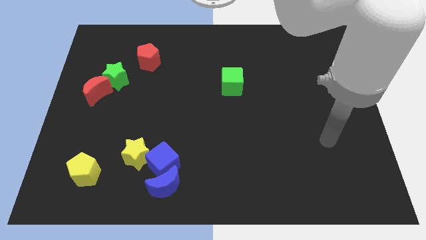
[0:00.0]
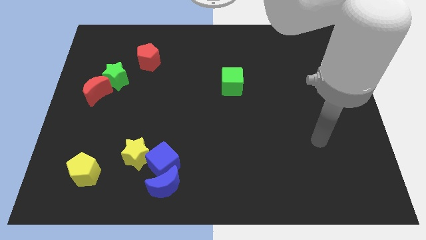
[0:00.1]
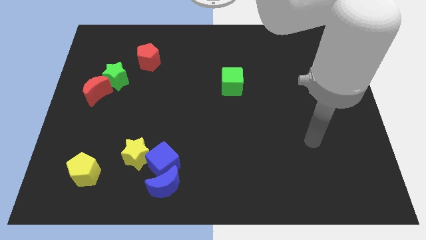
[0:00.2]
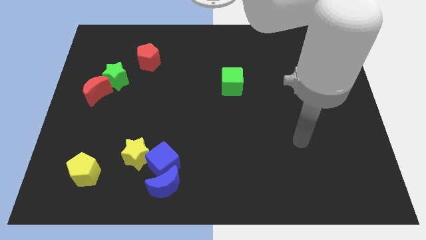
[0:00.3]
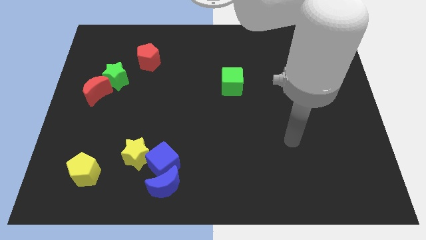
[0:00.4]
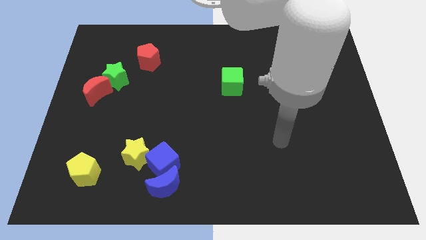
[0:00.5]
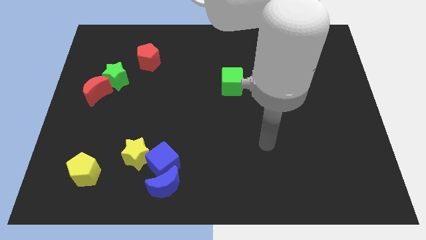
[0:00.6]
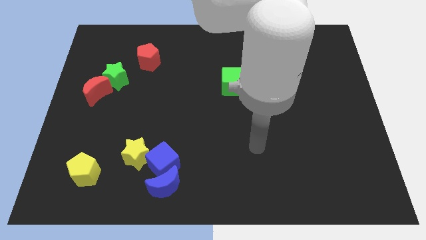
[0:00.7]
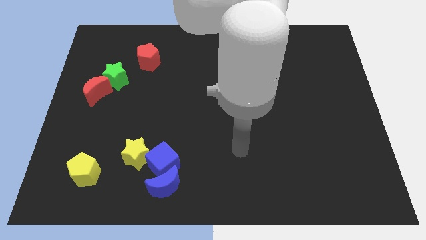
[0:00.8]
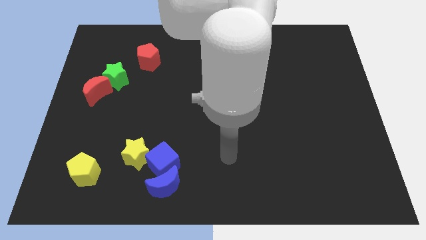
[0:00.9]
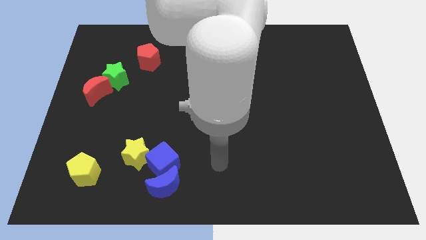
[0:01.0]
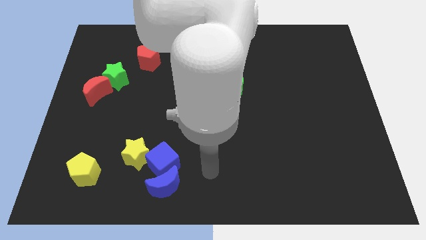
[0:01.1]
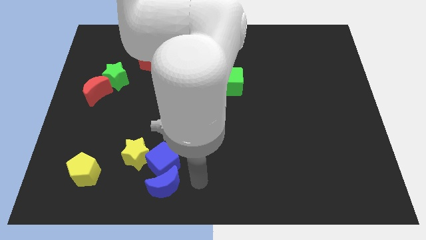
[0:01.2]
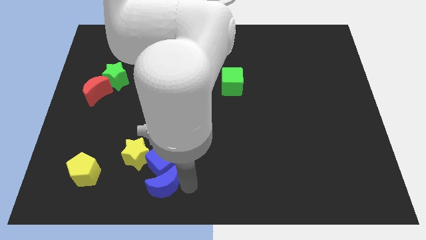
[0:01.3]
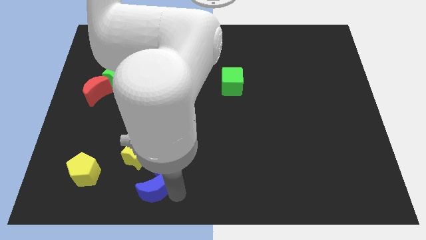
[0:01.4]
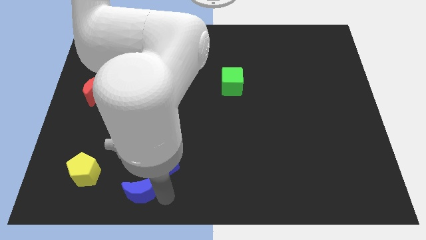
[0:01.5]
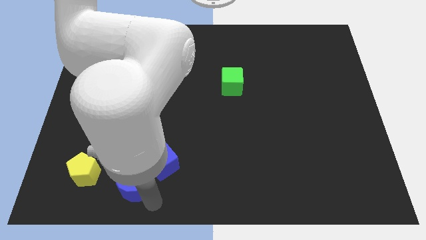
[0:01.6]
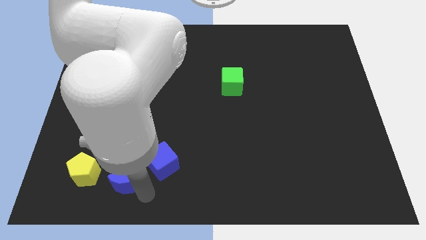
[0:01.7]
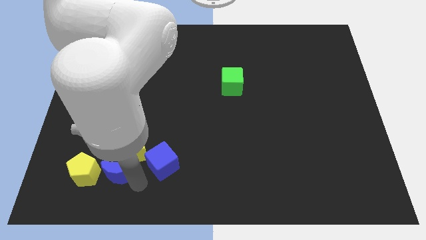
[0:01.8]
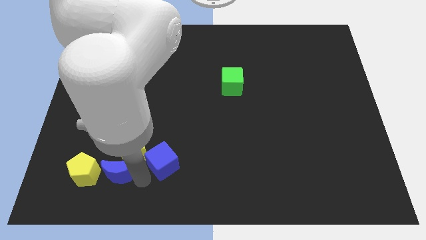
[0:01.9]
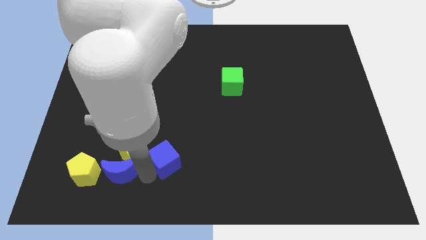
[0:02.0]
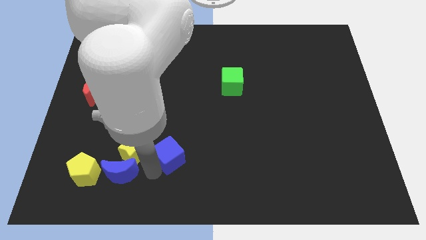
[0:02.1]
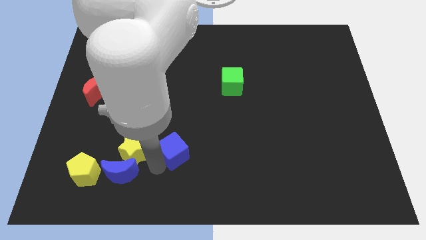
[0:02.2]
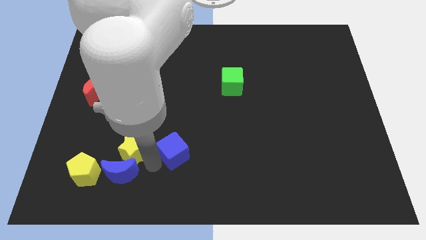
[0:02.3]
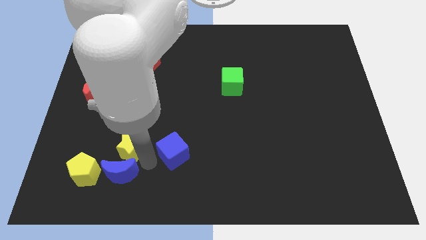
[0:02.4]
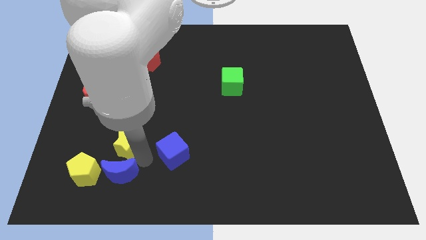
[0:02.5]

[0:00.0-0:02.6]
separate the blue cube from the blue moon and yellow star

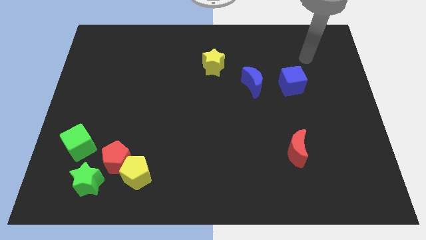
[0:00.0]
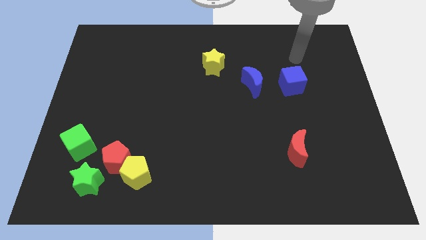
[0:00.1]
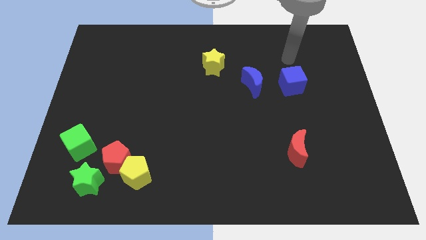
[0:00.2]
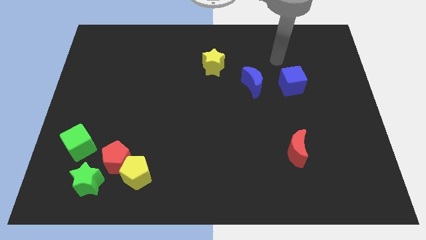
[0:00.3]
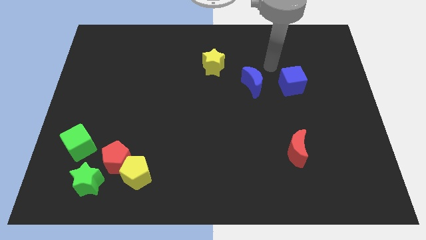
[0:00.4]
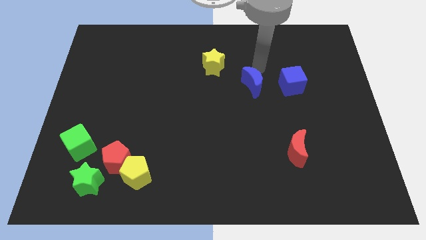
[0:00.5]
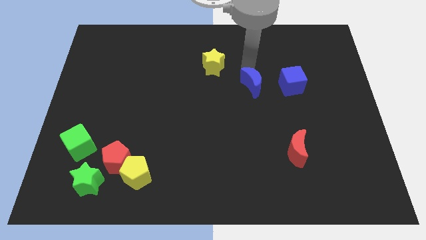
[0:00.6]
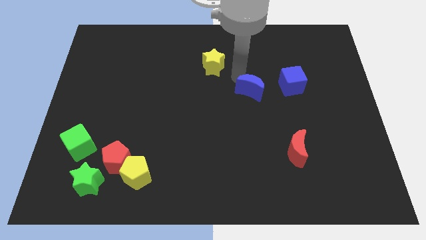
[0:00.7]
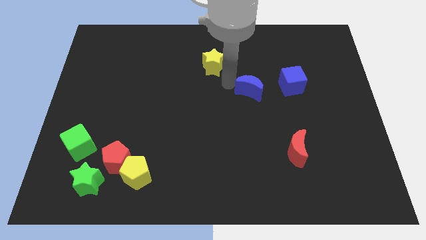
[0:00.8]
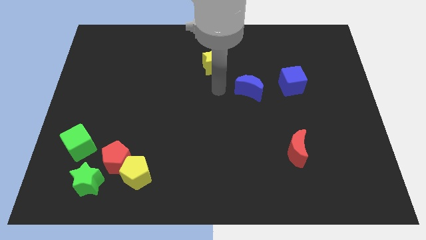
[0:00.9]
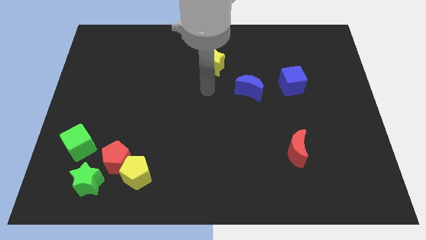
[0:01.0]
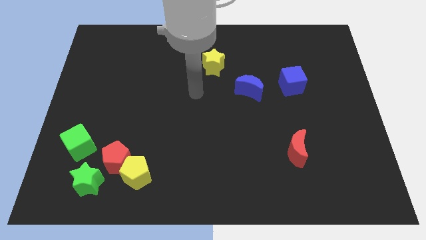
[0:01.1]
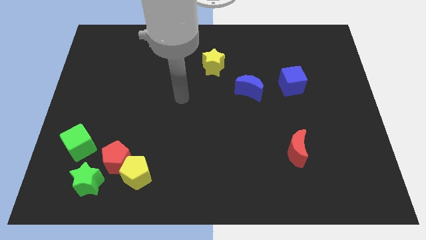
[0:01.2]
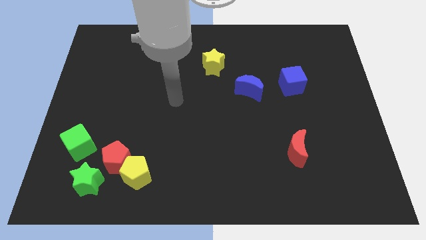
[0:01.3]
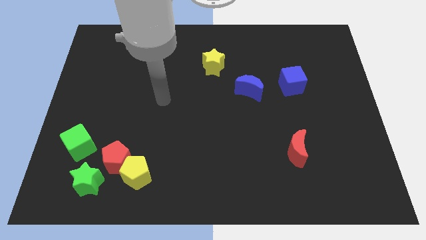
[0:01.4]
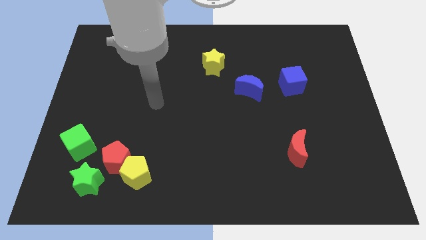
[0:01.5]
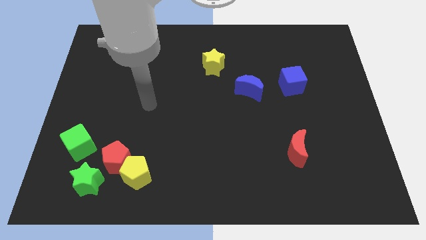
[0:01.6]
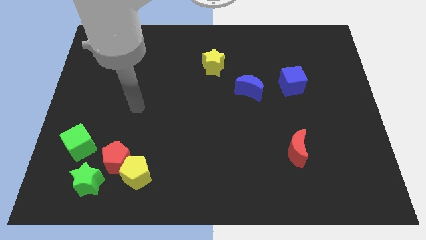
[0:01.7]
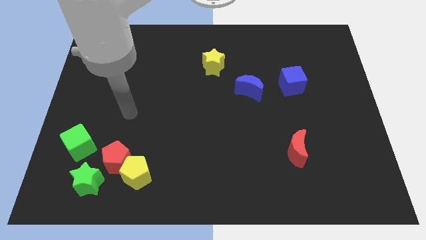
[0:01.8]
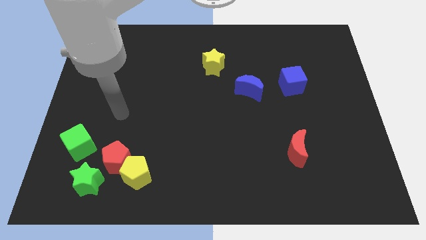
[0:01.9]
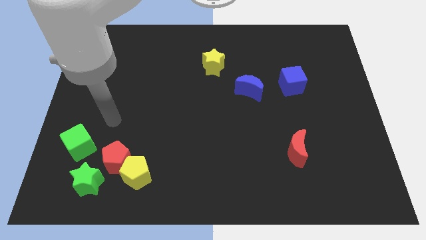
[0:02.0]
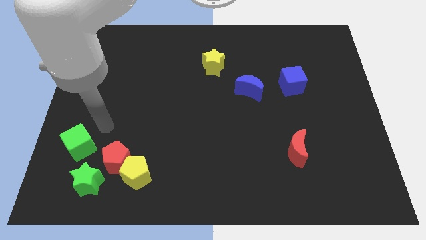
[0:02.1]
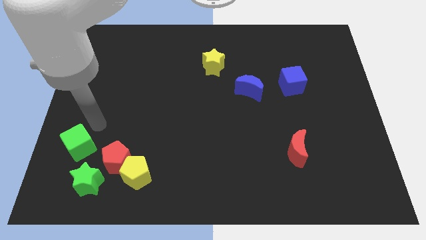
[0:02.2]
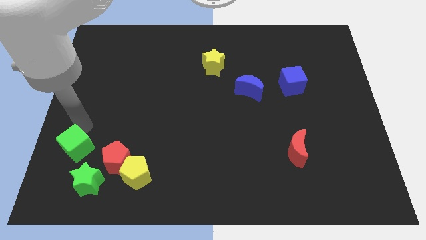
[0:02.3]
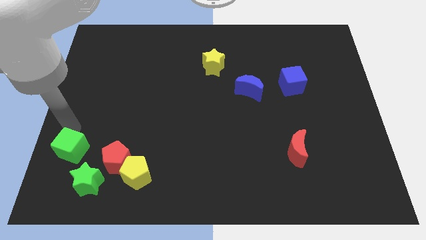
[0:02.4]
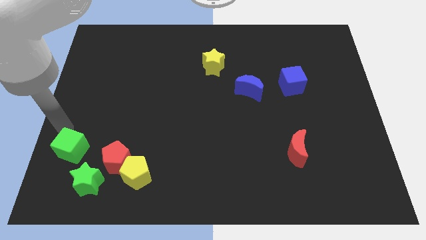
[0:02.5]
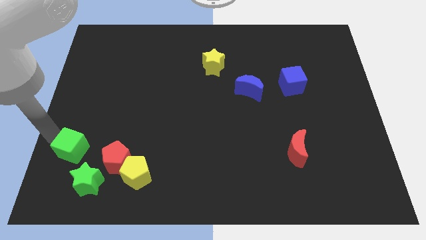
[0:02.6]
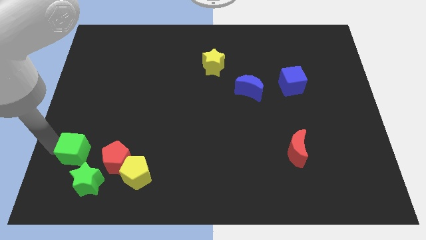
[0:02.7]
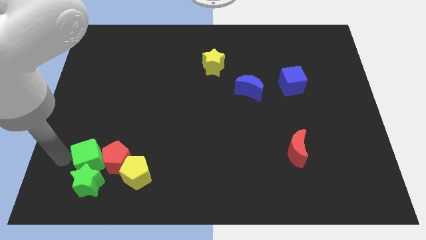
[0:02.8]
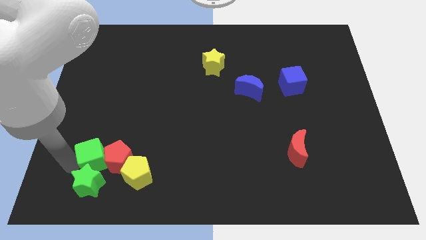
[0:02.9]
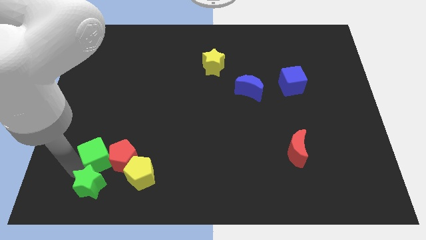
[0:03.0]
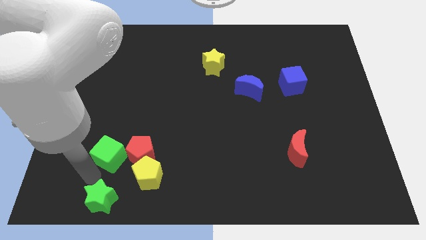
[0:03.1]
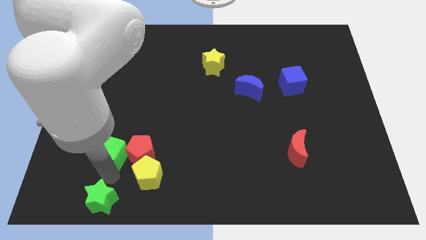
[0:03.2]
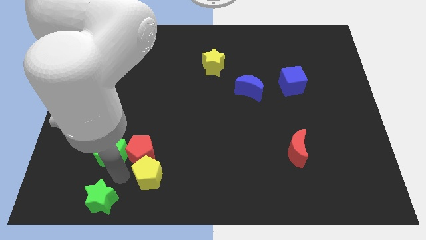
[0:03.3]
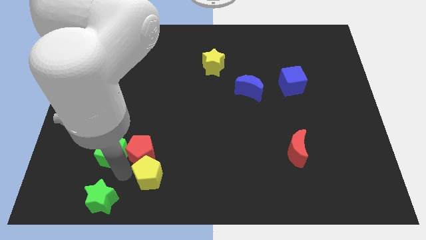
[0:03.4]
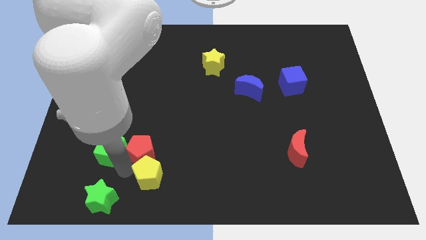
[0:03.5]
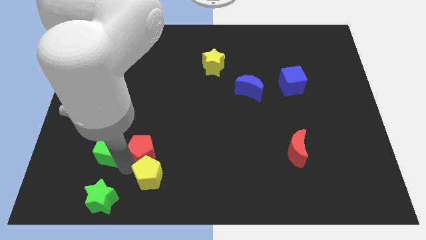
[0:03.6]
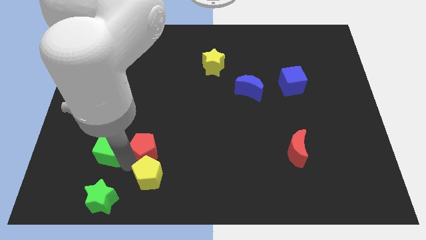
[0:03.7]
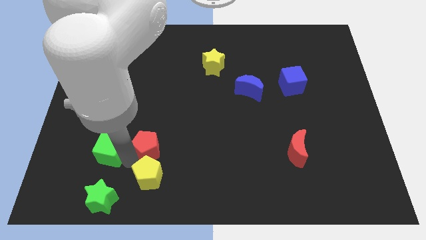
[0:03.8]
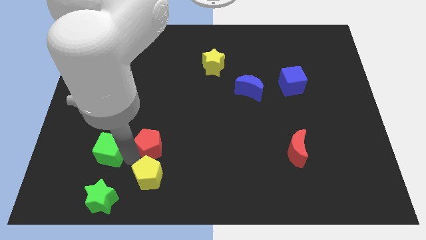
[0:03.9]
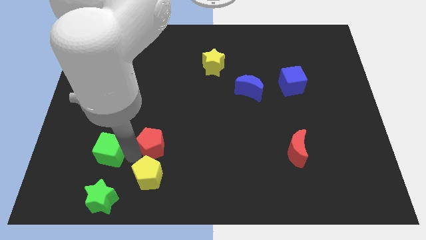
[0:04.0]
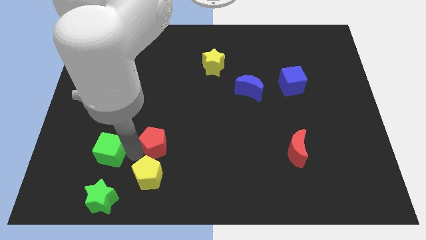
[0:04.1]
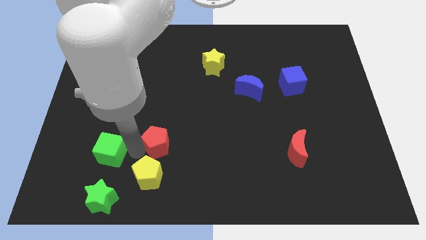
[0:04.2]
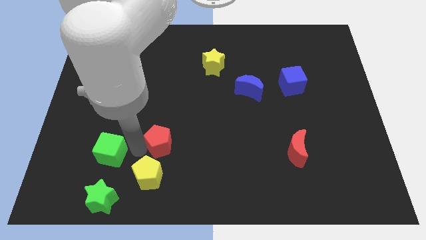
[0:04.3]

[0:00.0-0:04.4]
separate the red pentagon from the yellow pentagon, green star, and green cube

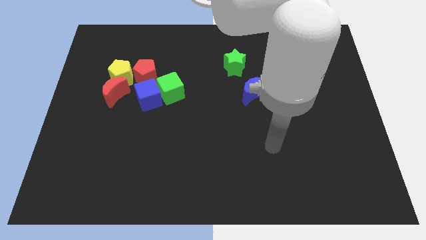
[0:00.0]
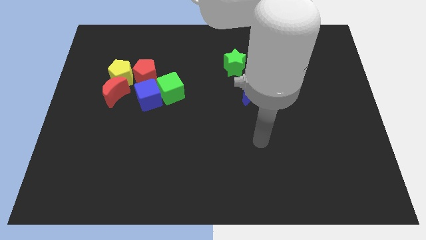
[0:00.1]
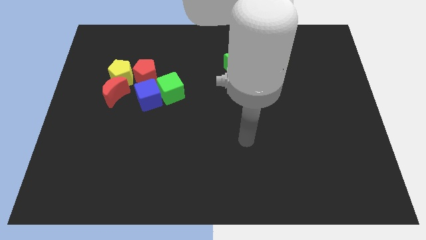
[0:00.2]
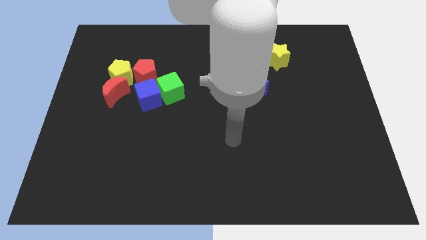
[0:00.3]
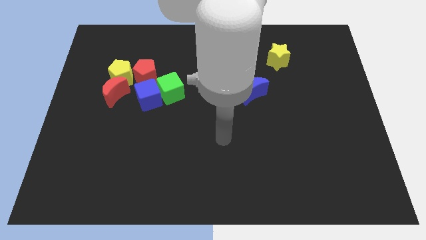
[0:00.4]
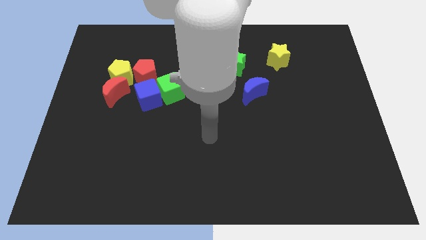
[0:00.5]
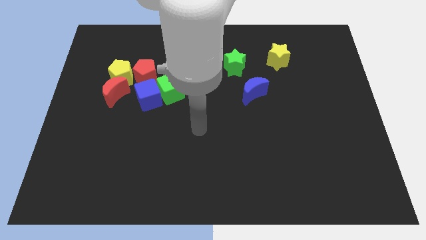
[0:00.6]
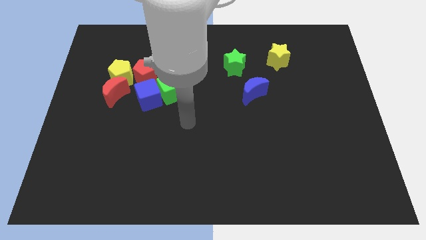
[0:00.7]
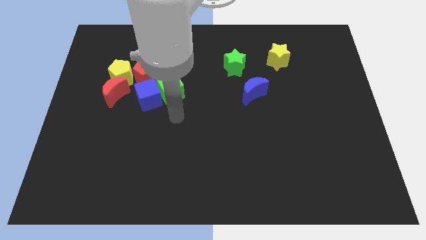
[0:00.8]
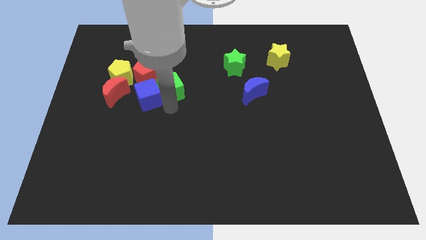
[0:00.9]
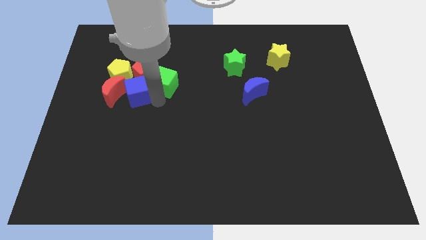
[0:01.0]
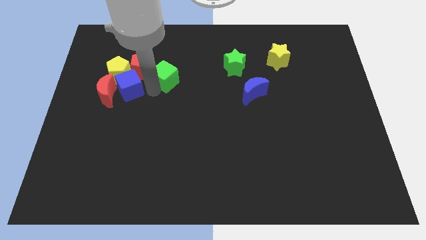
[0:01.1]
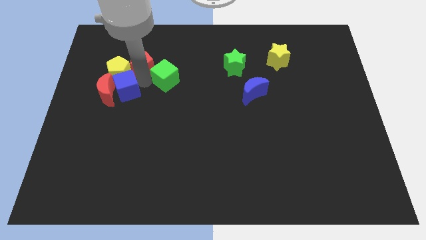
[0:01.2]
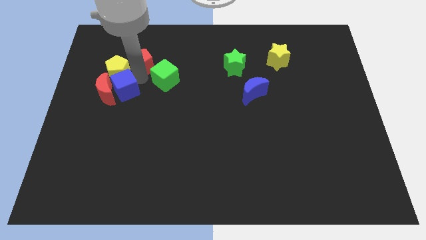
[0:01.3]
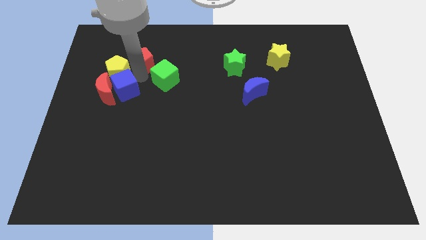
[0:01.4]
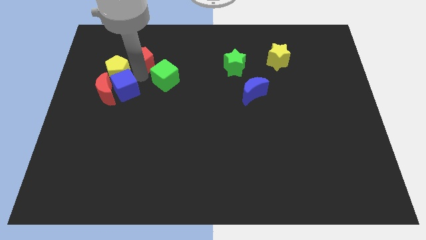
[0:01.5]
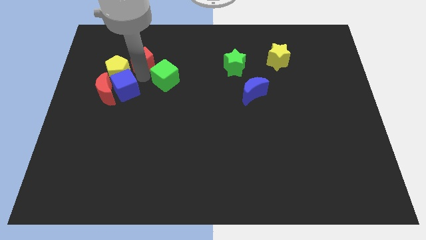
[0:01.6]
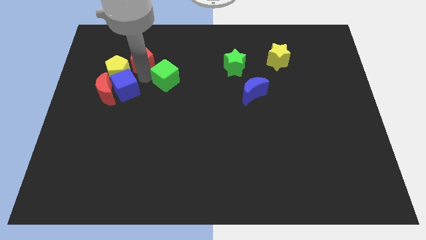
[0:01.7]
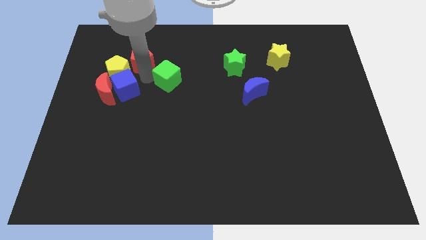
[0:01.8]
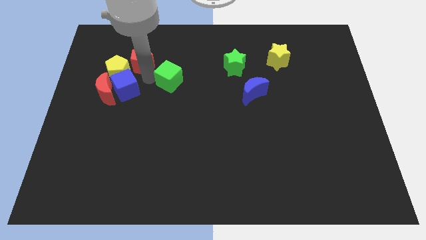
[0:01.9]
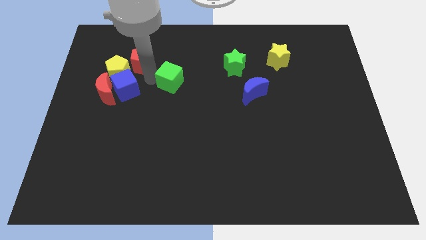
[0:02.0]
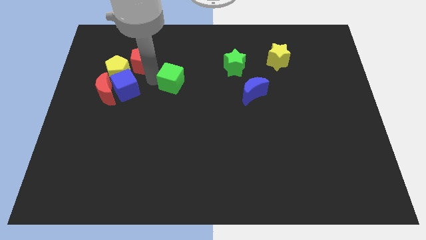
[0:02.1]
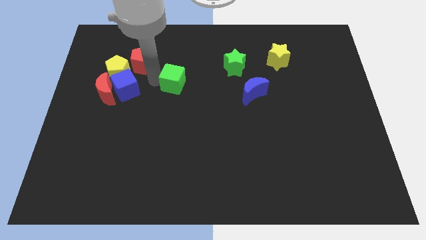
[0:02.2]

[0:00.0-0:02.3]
pull the green cube apart from the blue cube and red pentagon

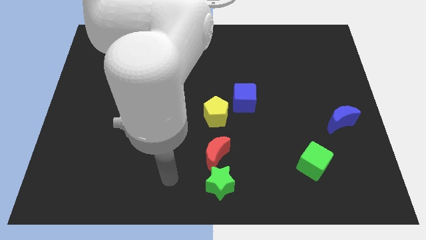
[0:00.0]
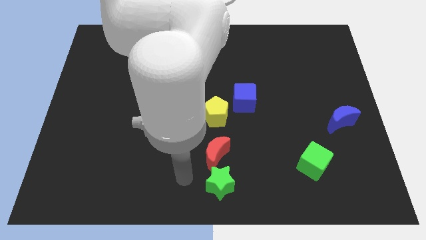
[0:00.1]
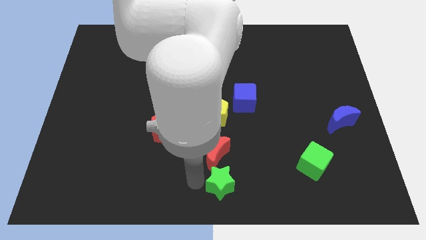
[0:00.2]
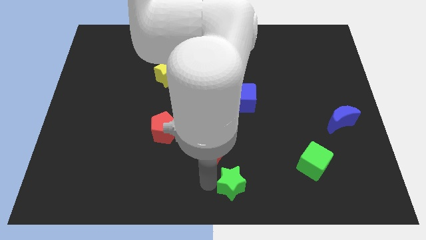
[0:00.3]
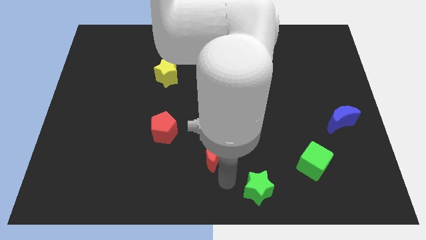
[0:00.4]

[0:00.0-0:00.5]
move the red moon away from the green star
